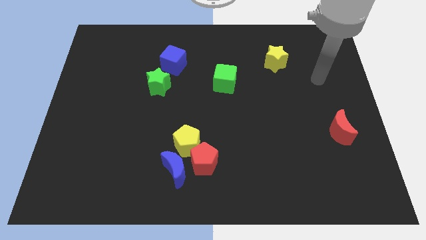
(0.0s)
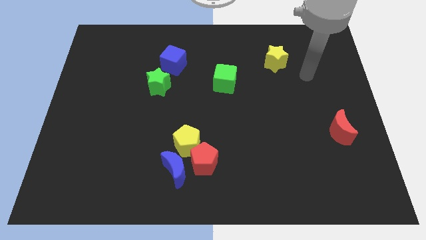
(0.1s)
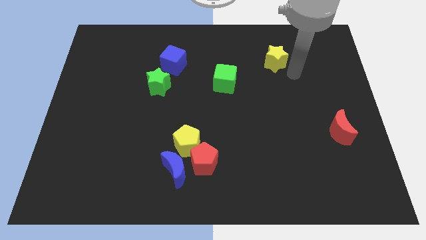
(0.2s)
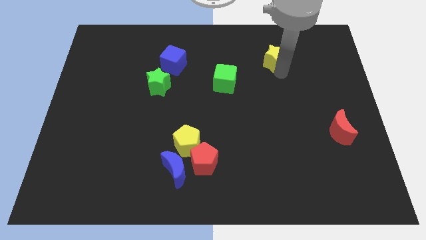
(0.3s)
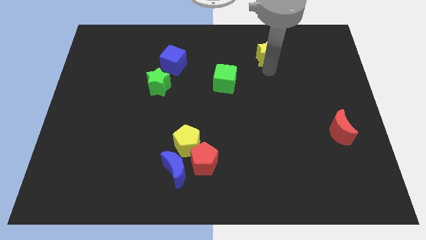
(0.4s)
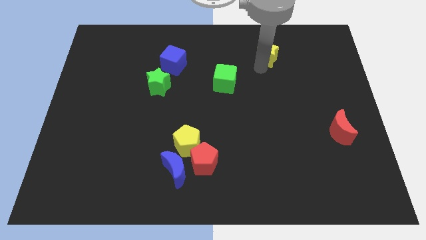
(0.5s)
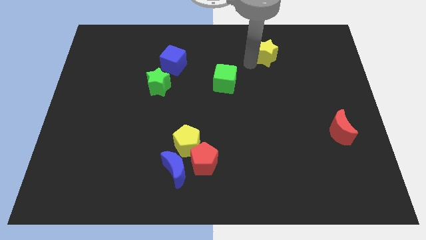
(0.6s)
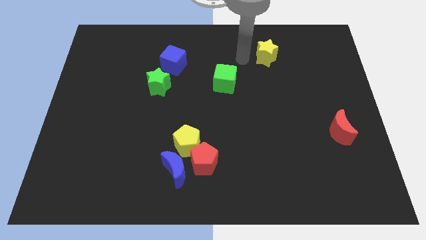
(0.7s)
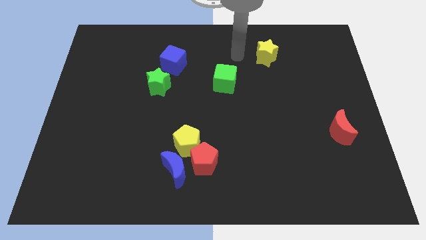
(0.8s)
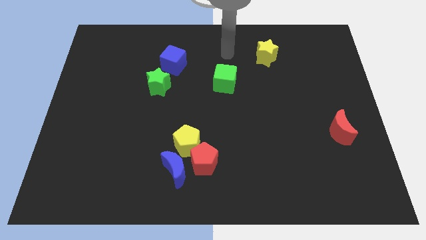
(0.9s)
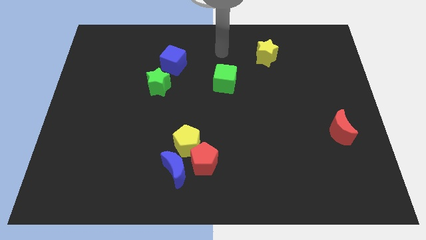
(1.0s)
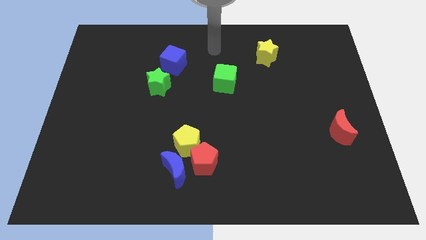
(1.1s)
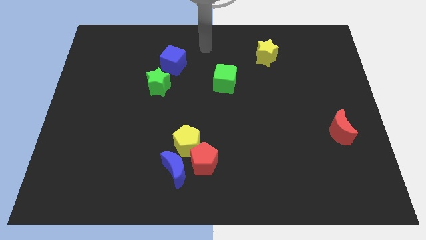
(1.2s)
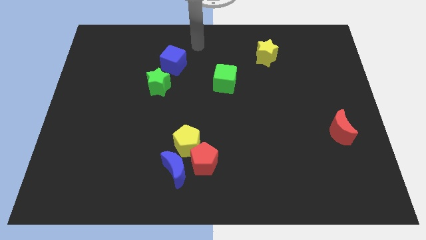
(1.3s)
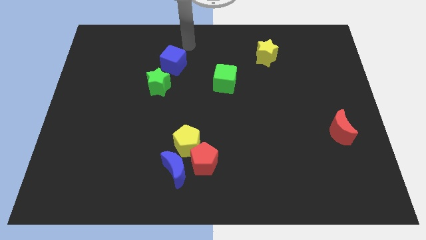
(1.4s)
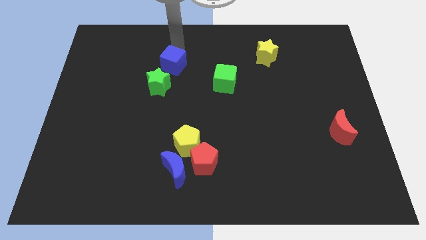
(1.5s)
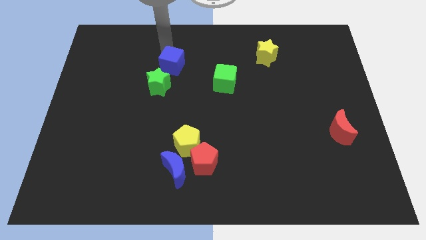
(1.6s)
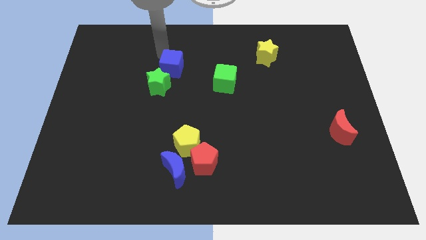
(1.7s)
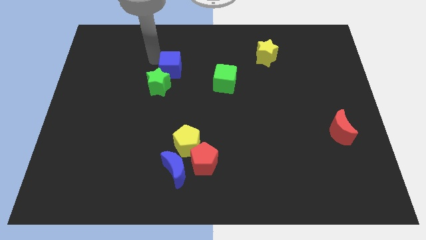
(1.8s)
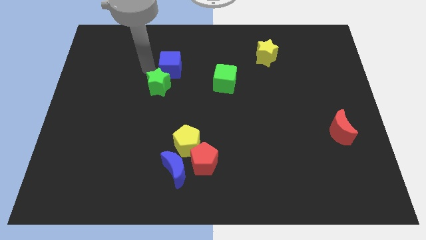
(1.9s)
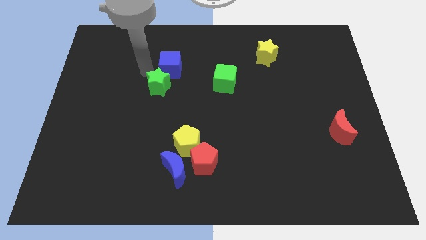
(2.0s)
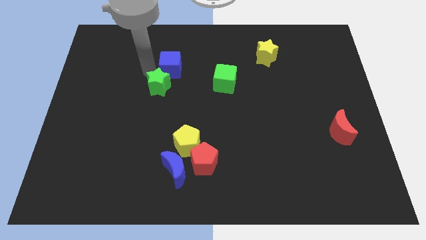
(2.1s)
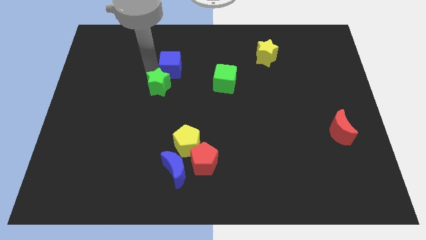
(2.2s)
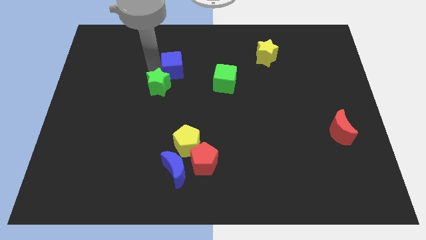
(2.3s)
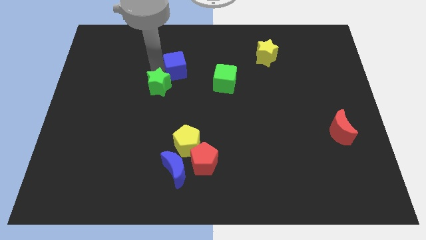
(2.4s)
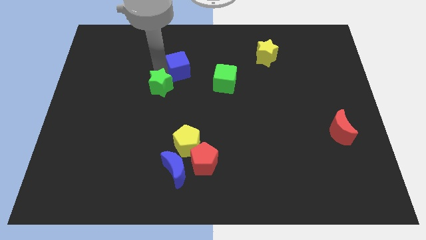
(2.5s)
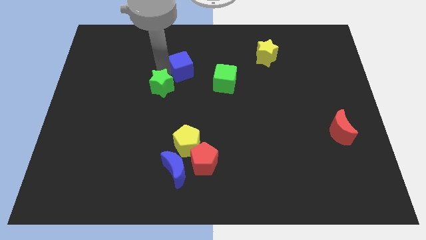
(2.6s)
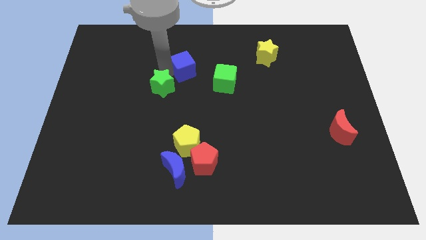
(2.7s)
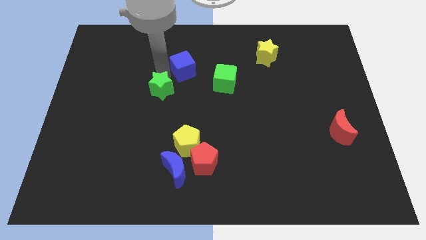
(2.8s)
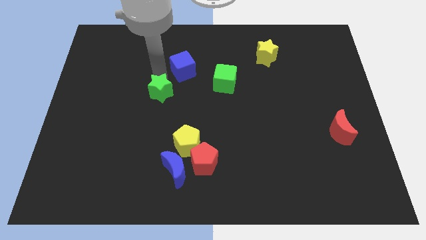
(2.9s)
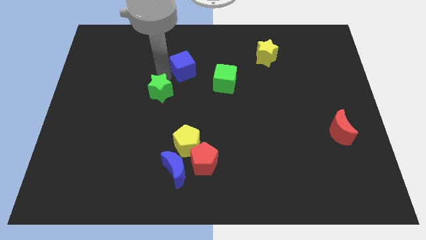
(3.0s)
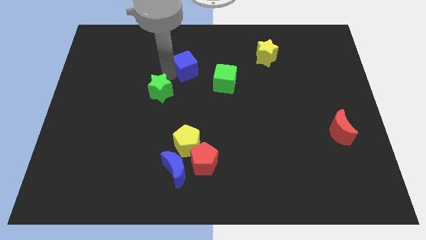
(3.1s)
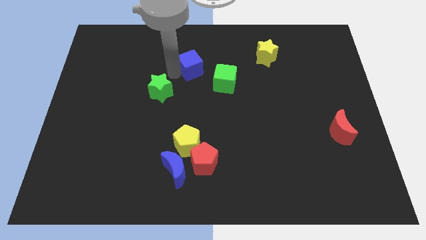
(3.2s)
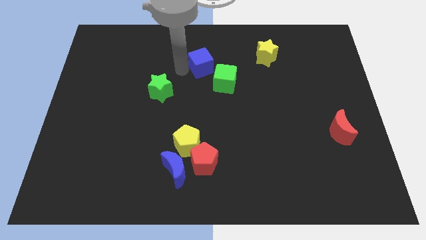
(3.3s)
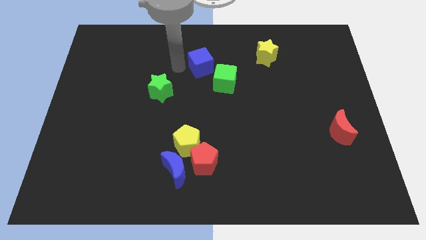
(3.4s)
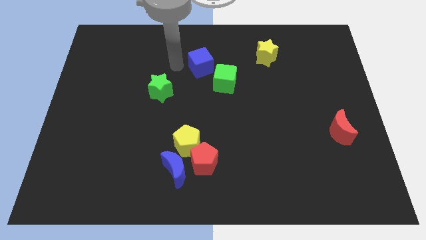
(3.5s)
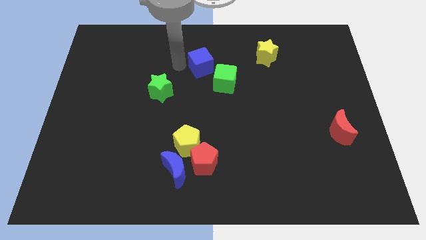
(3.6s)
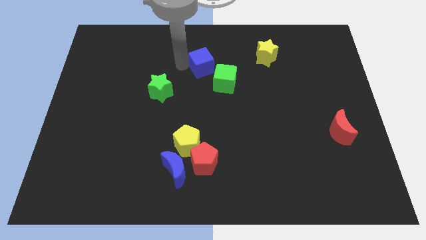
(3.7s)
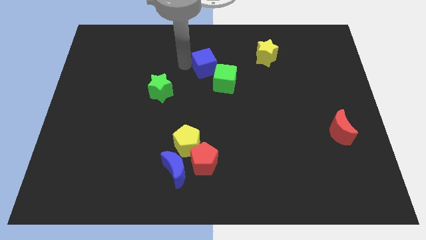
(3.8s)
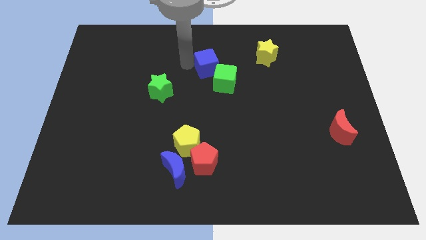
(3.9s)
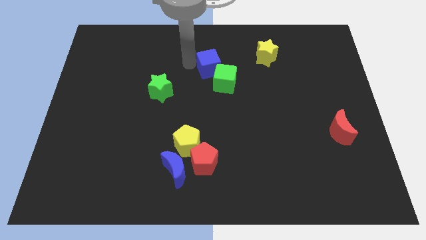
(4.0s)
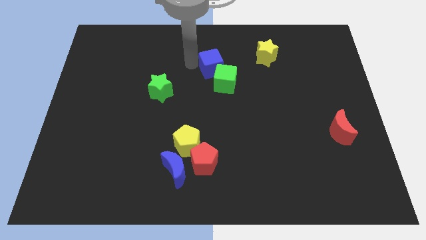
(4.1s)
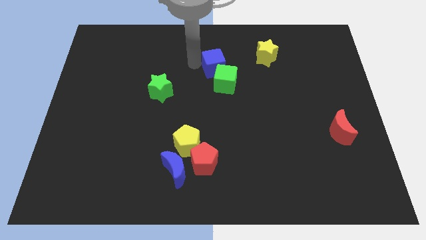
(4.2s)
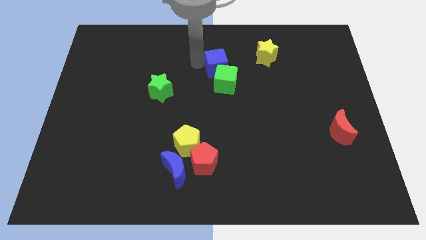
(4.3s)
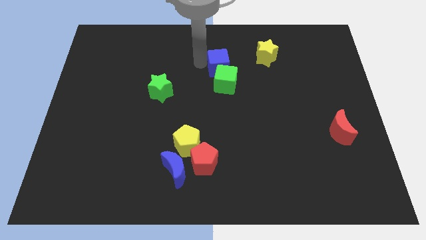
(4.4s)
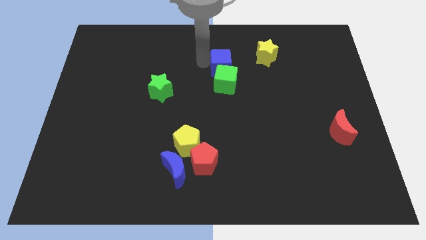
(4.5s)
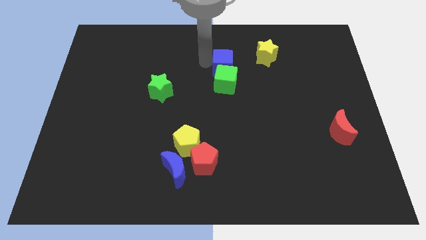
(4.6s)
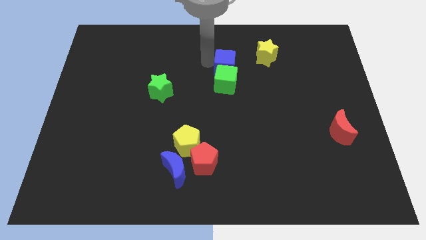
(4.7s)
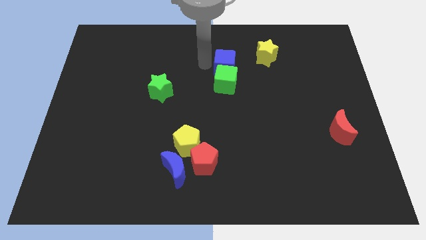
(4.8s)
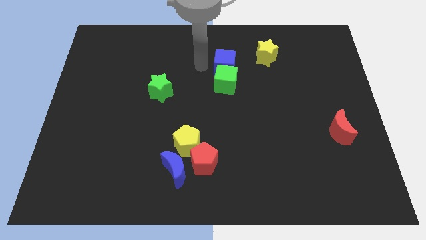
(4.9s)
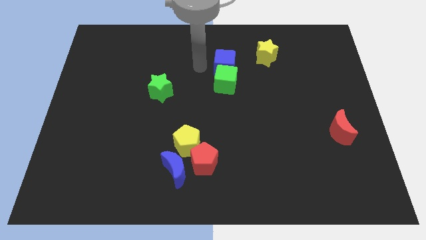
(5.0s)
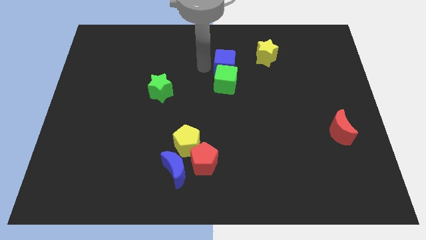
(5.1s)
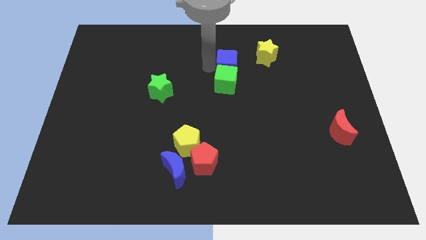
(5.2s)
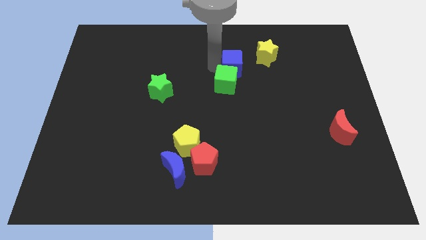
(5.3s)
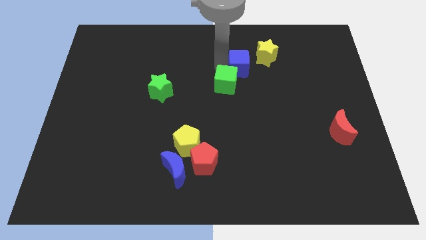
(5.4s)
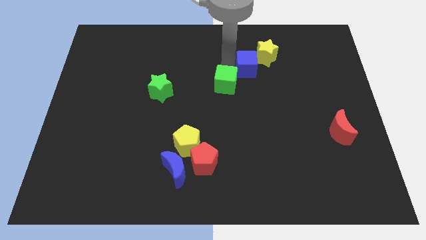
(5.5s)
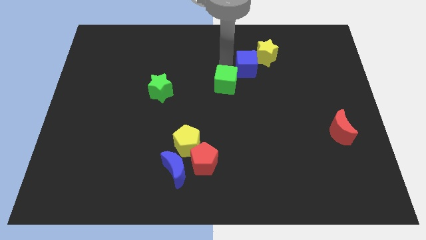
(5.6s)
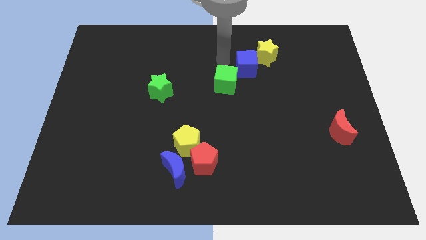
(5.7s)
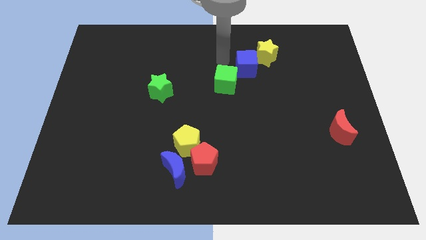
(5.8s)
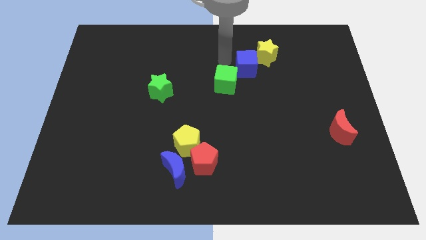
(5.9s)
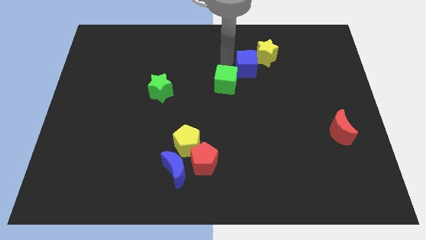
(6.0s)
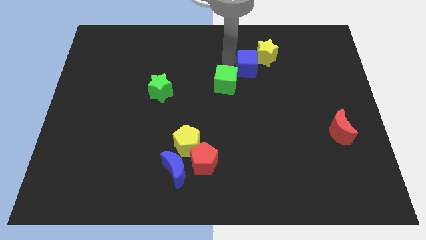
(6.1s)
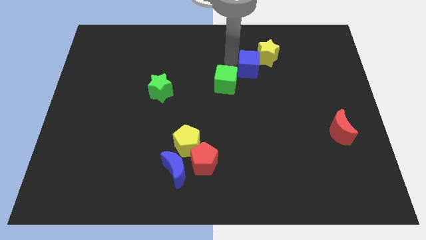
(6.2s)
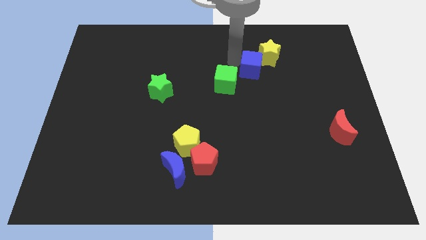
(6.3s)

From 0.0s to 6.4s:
move the blue cube right

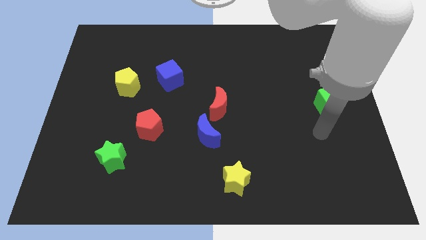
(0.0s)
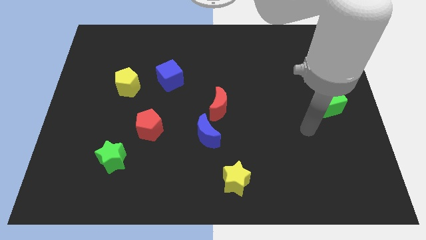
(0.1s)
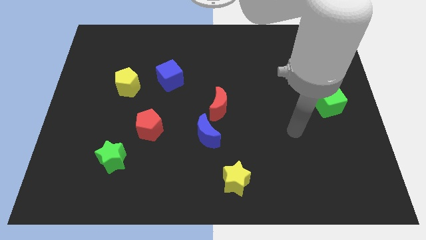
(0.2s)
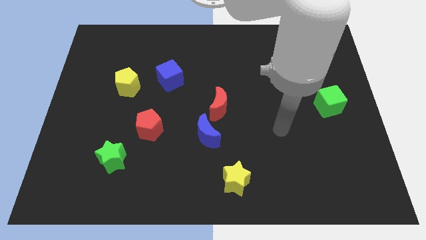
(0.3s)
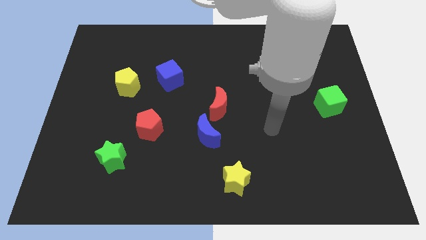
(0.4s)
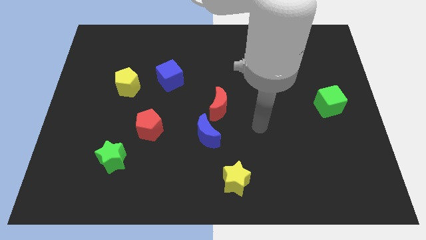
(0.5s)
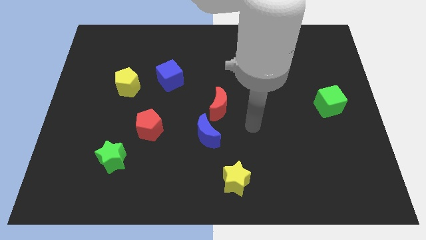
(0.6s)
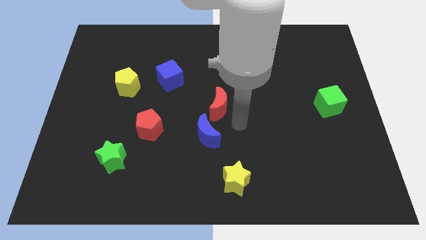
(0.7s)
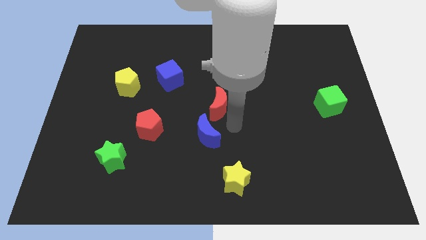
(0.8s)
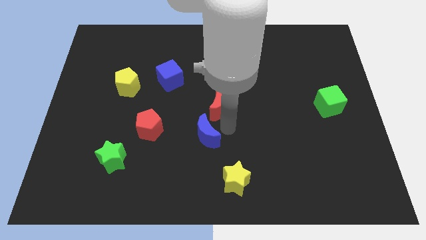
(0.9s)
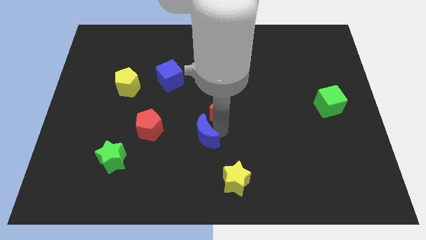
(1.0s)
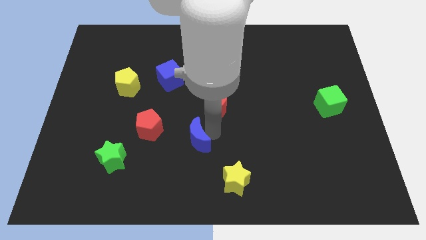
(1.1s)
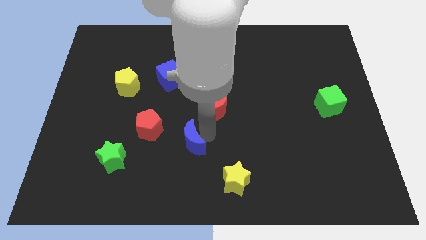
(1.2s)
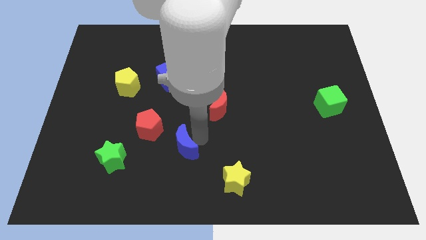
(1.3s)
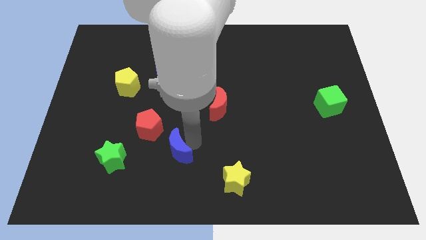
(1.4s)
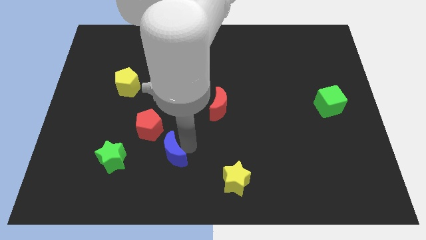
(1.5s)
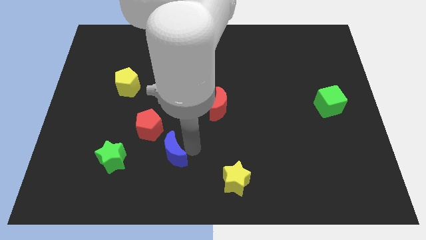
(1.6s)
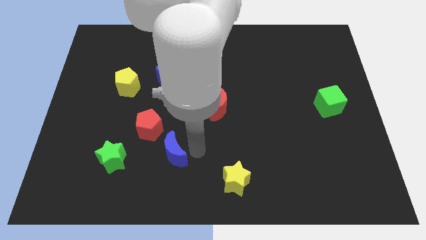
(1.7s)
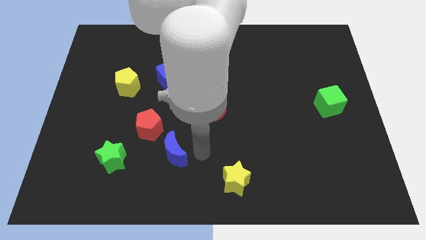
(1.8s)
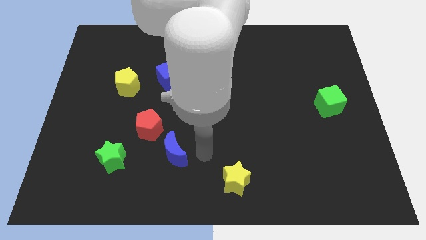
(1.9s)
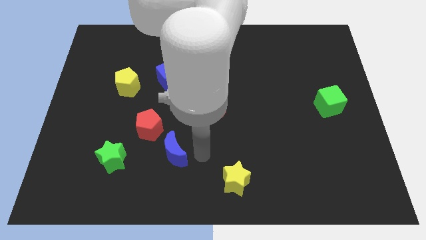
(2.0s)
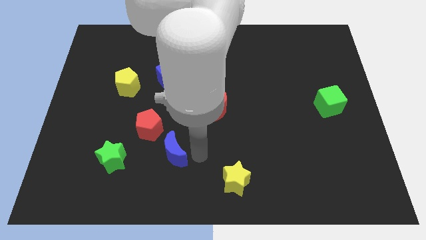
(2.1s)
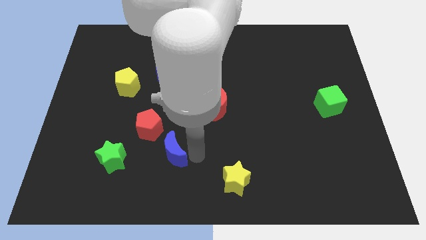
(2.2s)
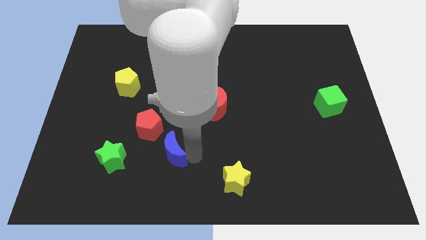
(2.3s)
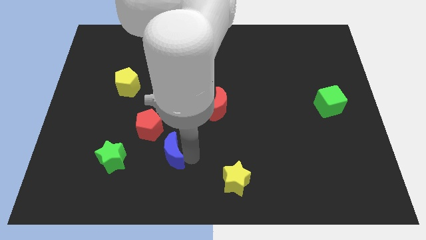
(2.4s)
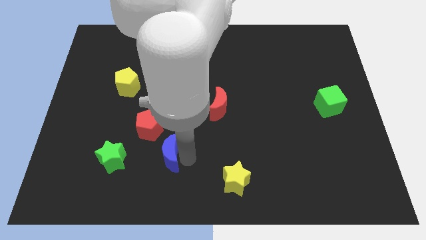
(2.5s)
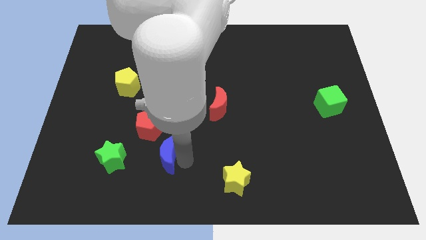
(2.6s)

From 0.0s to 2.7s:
slide the blue moon to the left a little
